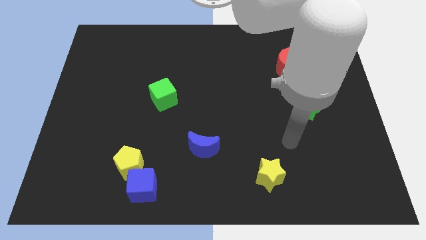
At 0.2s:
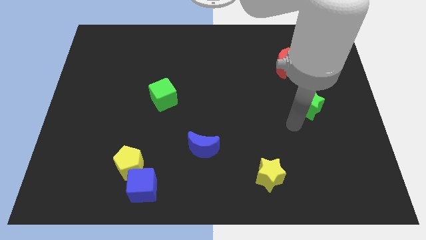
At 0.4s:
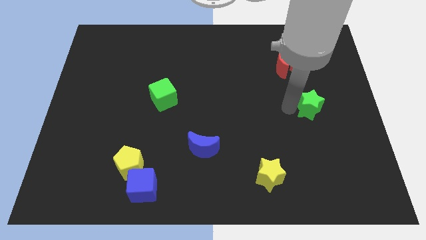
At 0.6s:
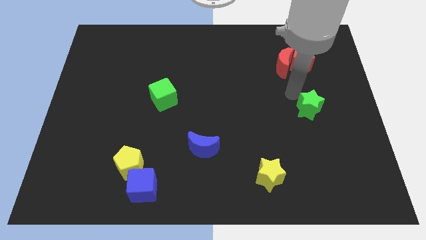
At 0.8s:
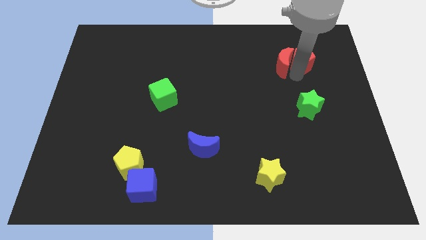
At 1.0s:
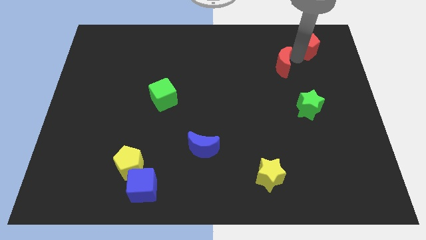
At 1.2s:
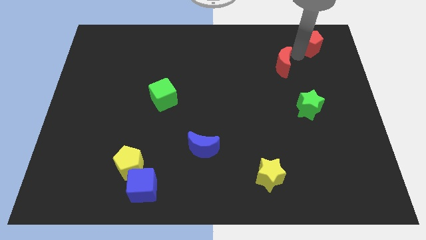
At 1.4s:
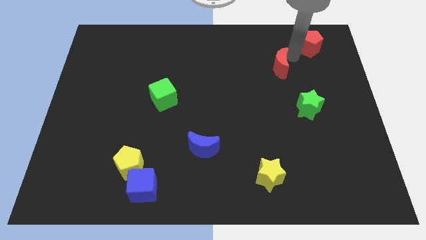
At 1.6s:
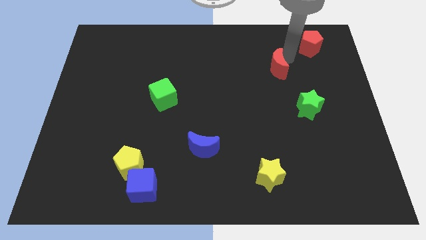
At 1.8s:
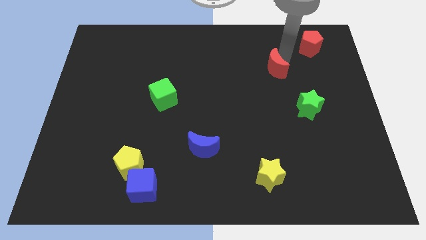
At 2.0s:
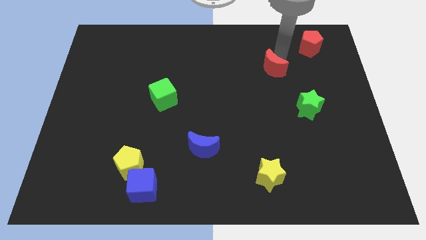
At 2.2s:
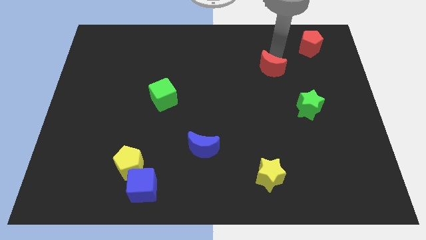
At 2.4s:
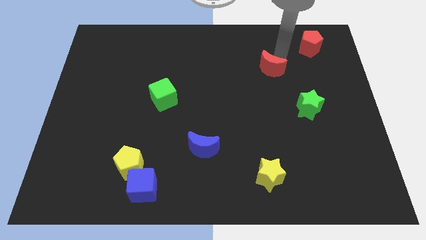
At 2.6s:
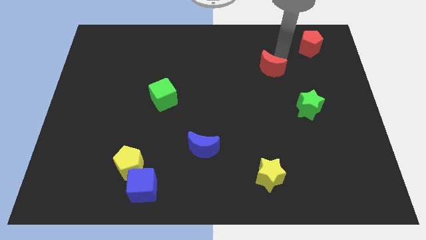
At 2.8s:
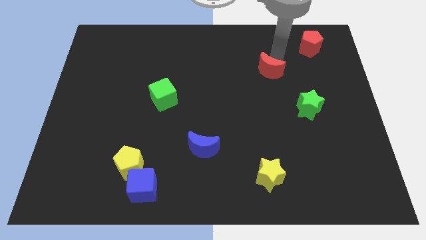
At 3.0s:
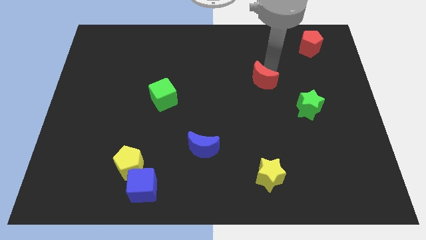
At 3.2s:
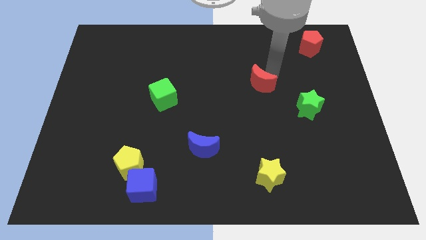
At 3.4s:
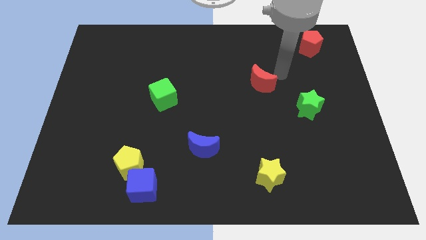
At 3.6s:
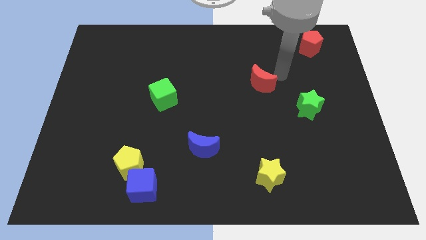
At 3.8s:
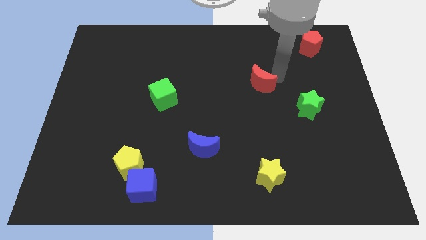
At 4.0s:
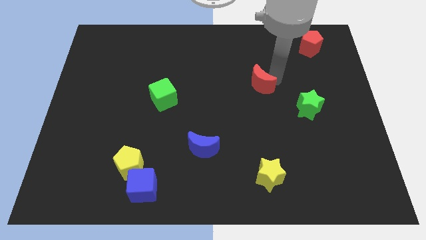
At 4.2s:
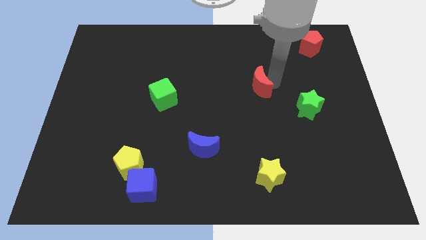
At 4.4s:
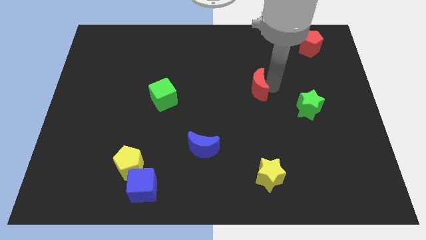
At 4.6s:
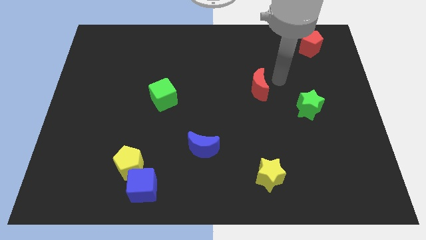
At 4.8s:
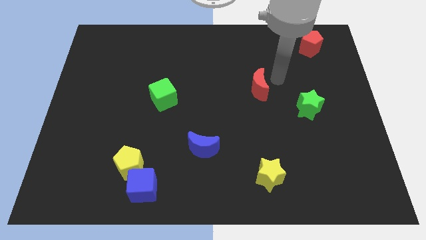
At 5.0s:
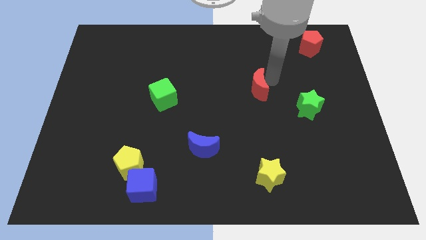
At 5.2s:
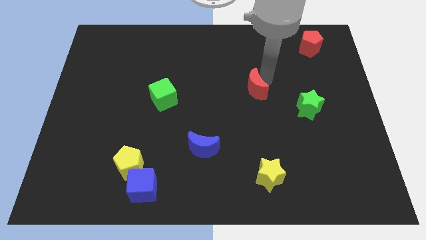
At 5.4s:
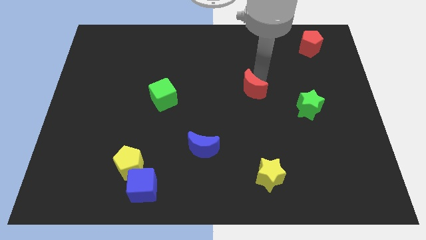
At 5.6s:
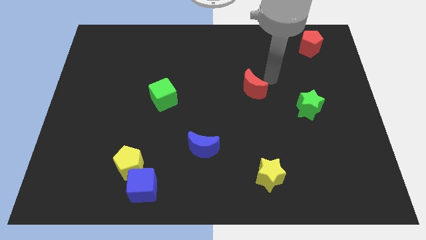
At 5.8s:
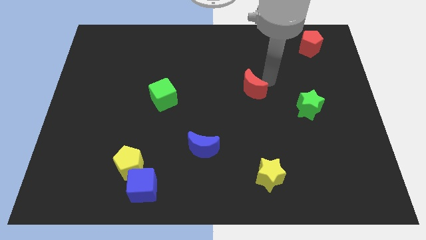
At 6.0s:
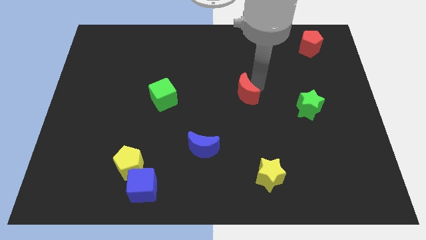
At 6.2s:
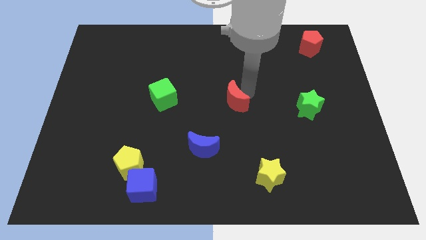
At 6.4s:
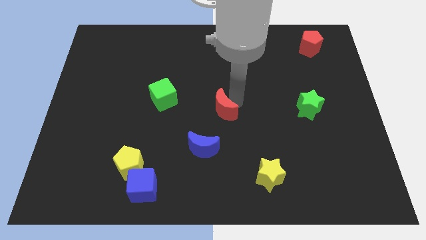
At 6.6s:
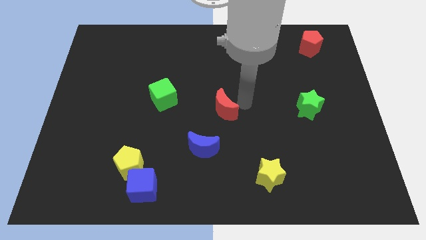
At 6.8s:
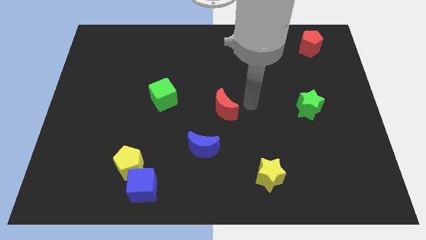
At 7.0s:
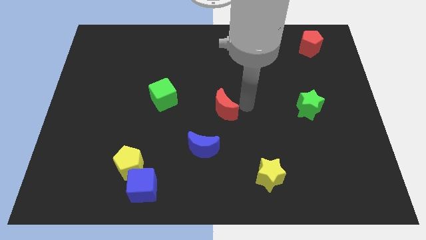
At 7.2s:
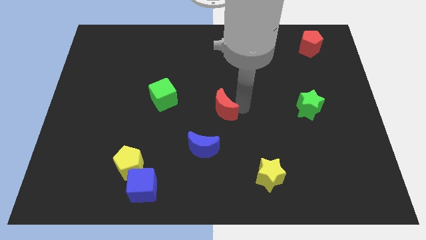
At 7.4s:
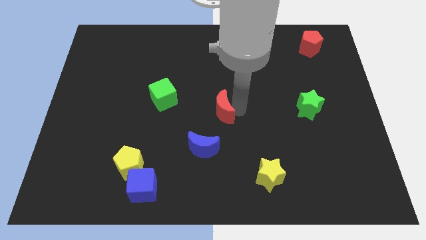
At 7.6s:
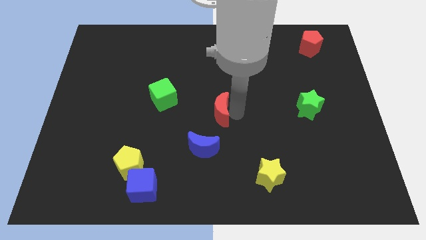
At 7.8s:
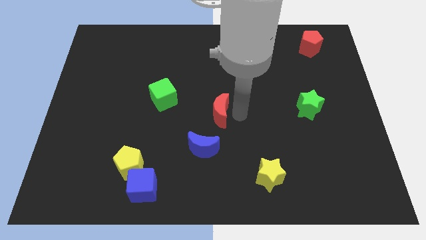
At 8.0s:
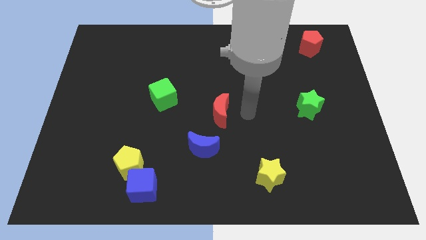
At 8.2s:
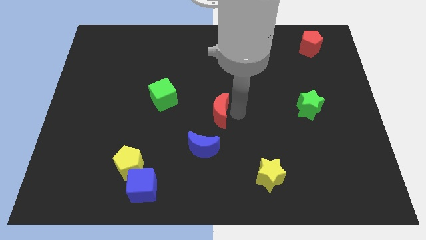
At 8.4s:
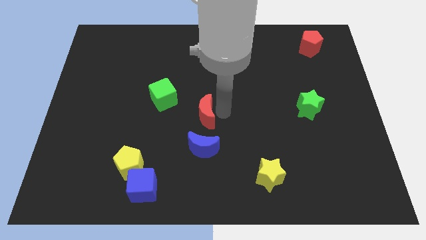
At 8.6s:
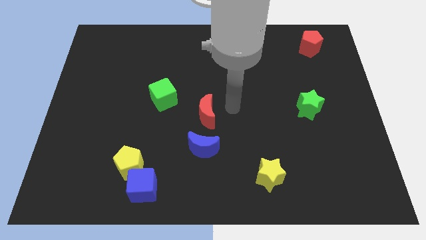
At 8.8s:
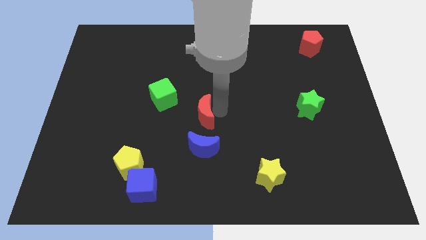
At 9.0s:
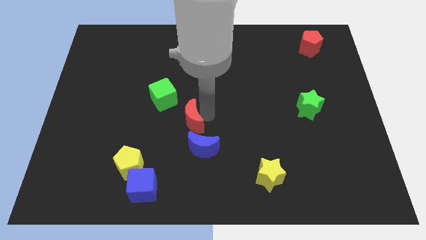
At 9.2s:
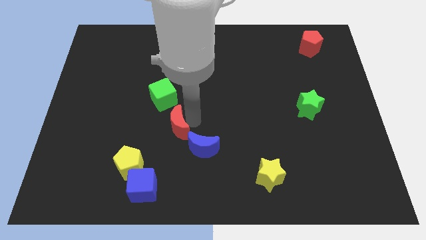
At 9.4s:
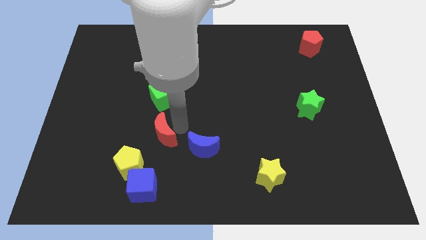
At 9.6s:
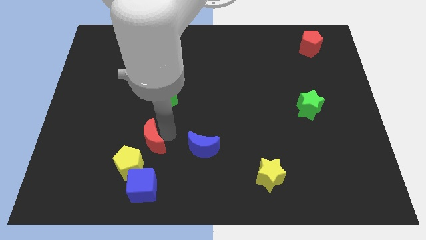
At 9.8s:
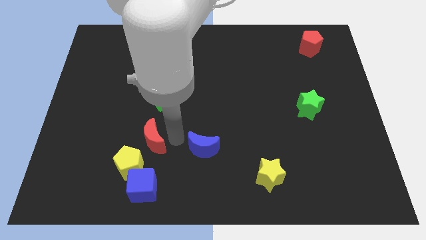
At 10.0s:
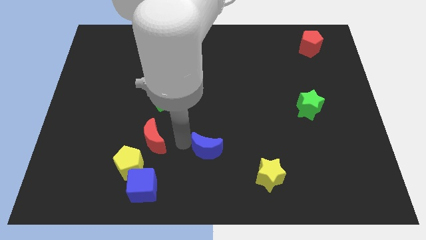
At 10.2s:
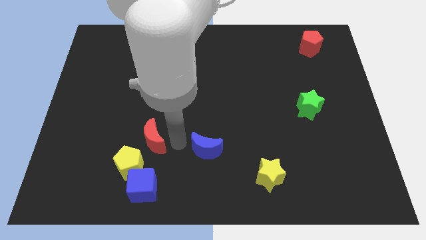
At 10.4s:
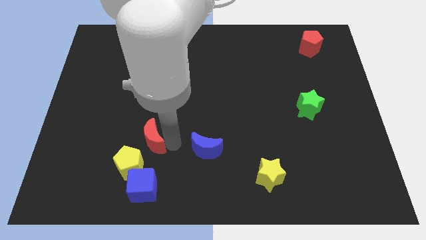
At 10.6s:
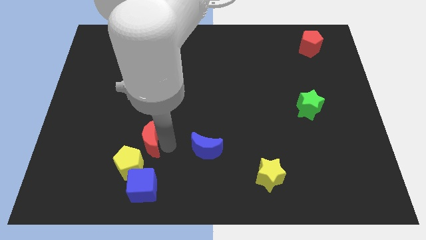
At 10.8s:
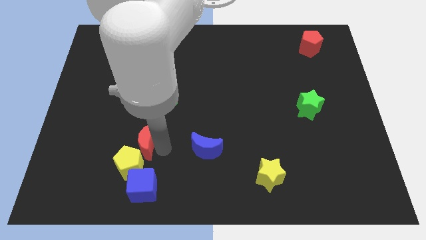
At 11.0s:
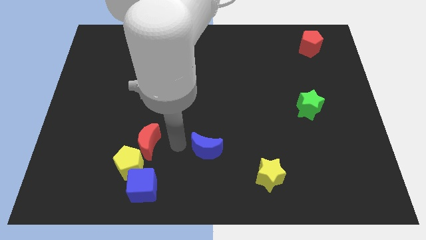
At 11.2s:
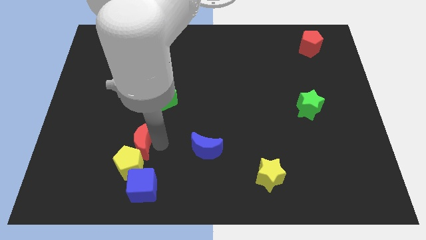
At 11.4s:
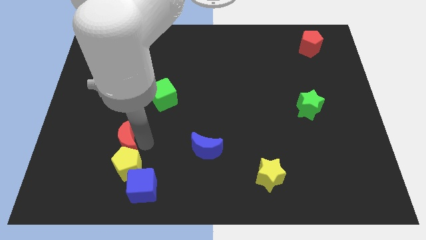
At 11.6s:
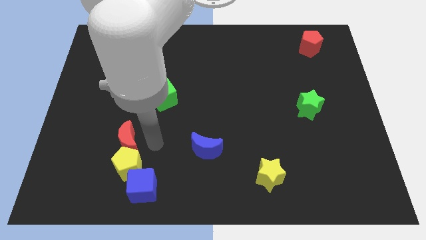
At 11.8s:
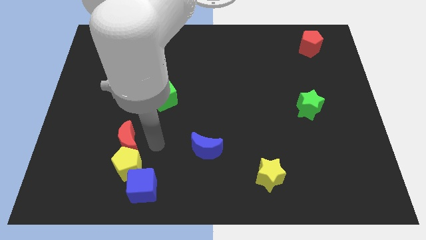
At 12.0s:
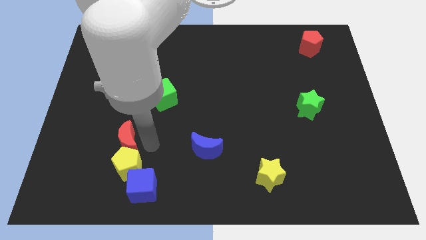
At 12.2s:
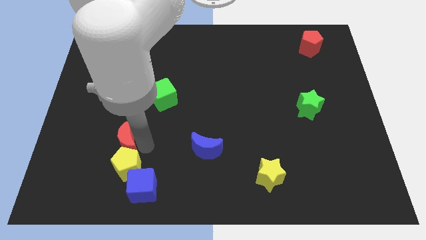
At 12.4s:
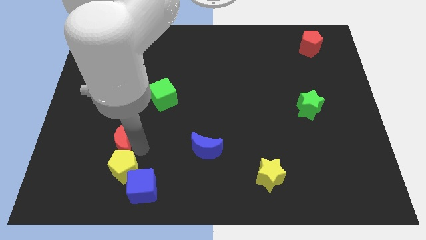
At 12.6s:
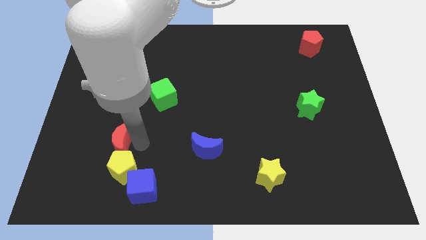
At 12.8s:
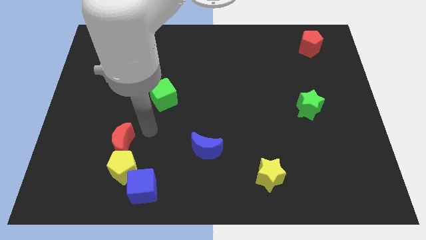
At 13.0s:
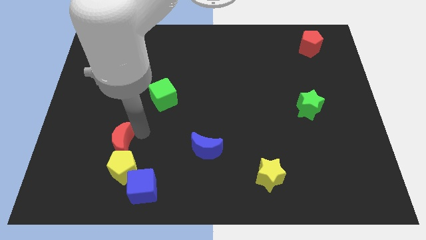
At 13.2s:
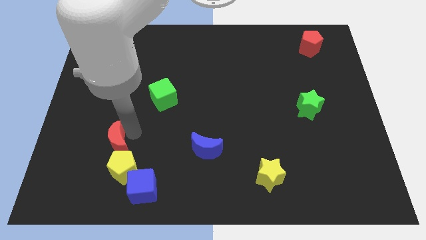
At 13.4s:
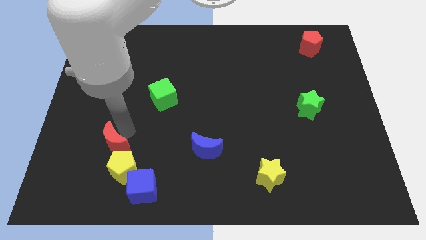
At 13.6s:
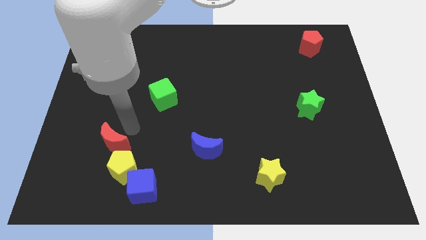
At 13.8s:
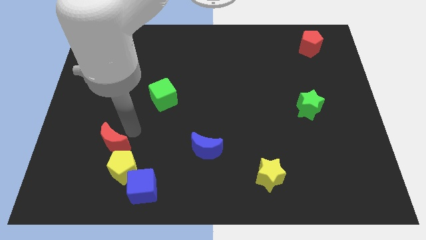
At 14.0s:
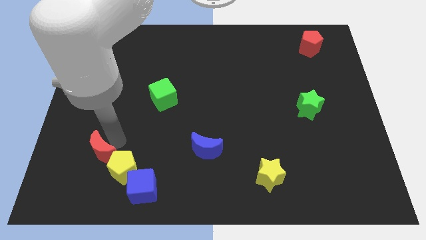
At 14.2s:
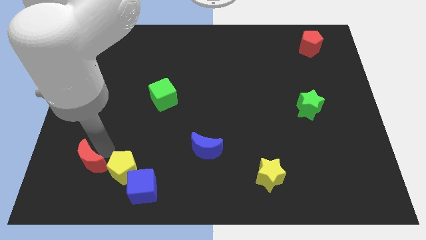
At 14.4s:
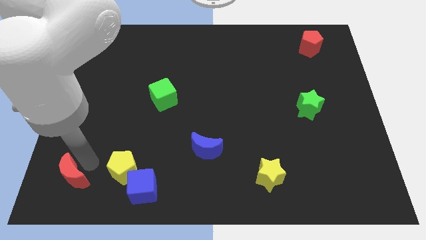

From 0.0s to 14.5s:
slide the red moon to the bottom left corner
